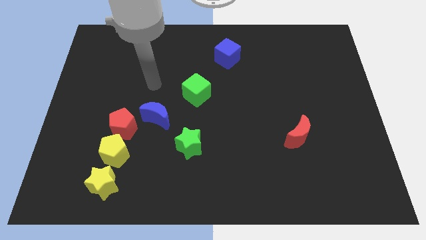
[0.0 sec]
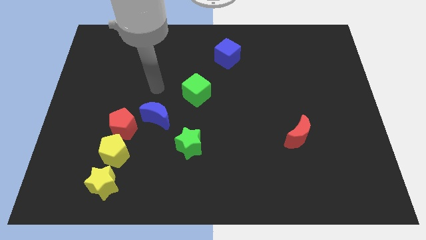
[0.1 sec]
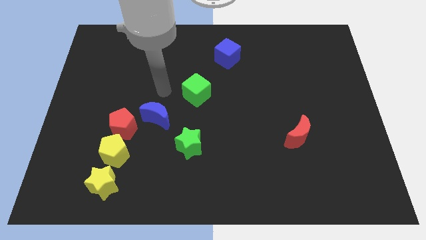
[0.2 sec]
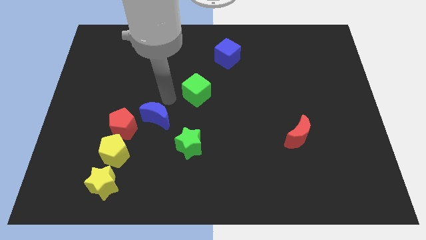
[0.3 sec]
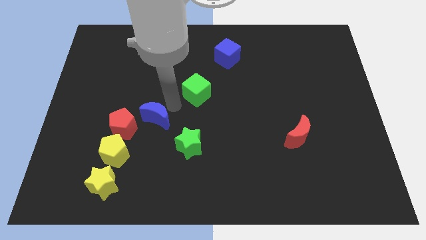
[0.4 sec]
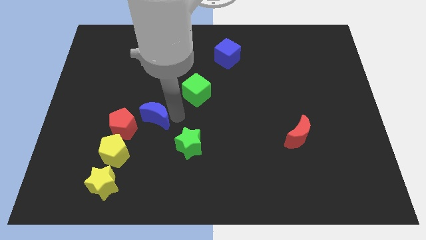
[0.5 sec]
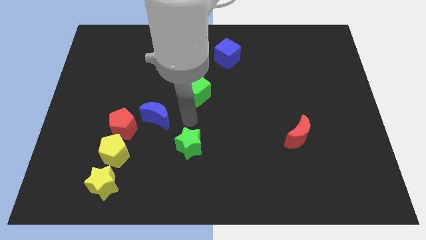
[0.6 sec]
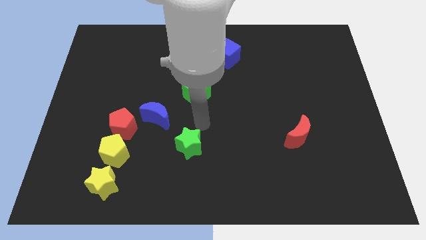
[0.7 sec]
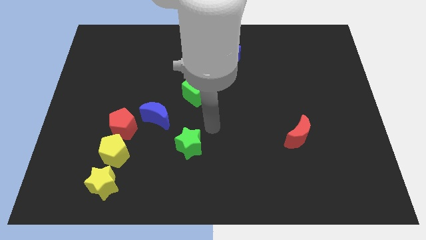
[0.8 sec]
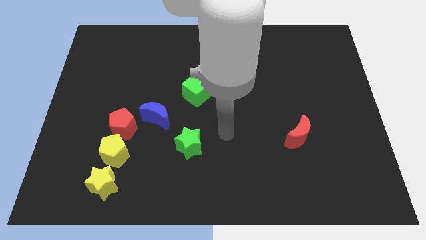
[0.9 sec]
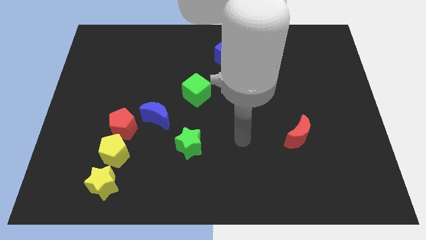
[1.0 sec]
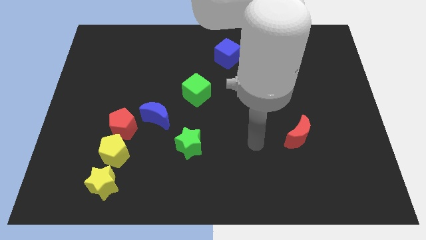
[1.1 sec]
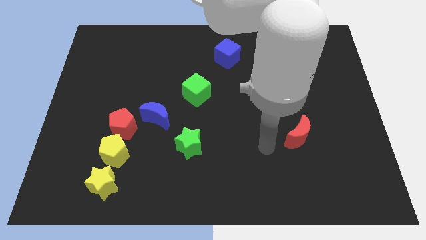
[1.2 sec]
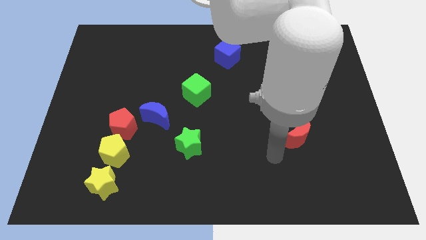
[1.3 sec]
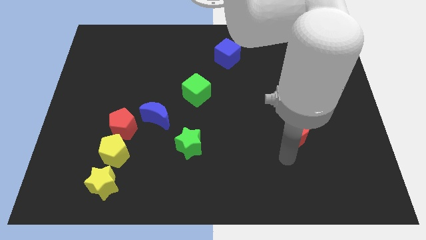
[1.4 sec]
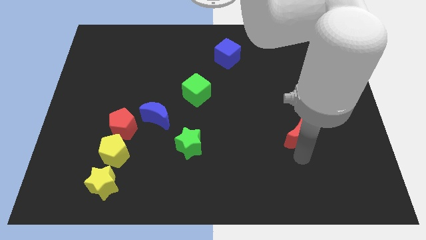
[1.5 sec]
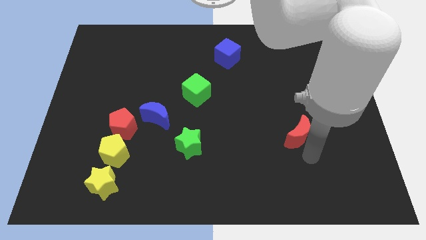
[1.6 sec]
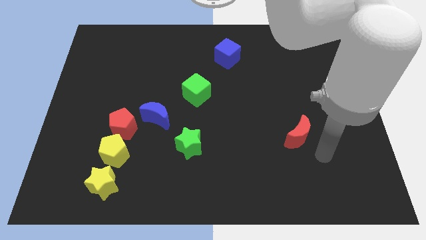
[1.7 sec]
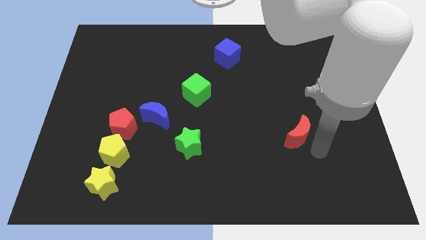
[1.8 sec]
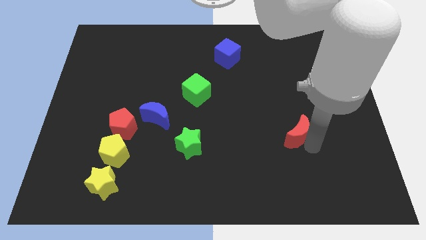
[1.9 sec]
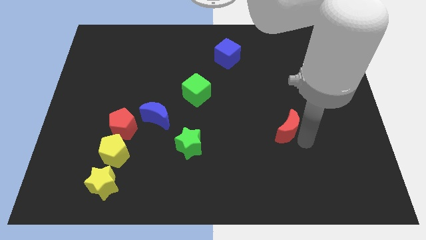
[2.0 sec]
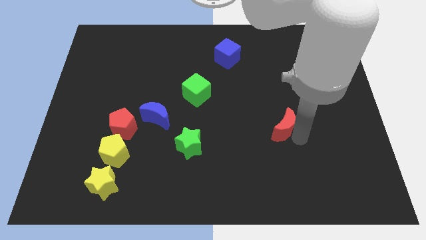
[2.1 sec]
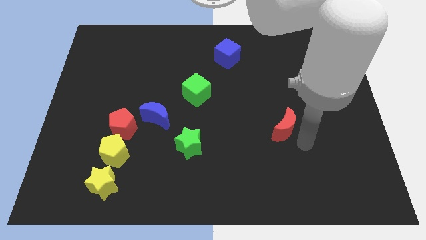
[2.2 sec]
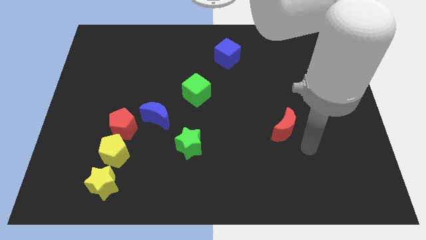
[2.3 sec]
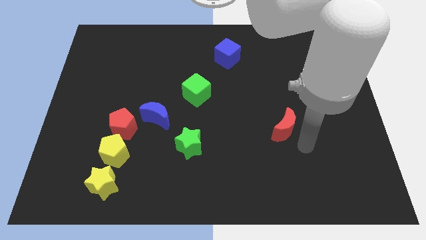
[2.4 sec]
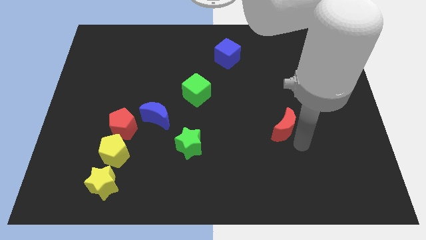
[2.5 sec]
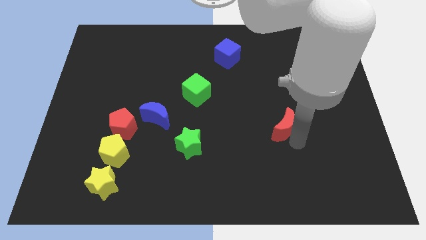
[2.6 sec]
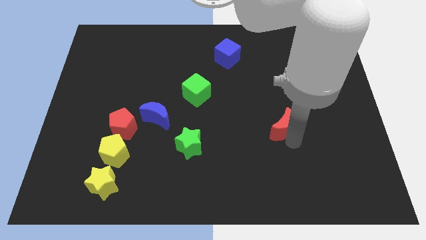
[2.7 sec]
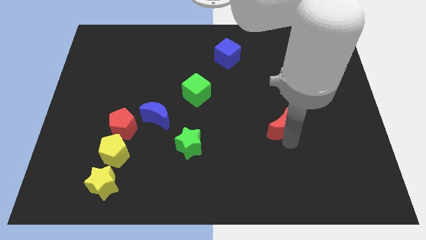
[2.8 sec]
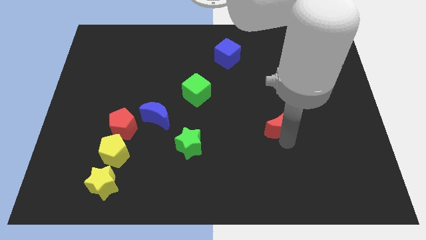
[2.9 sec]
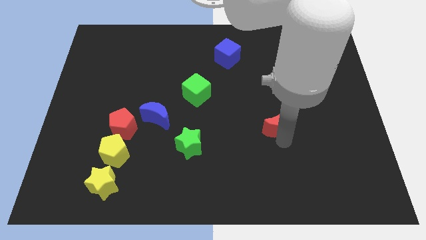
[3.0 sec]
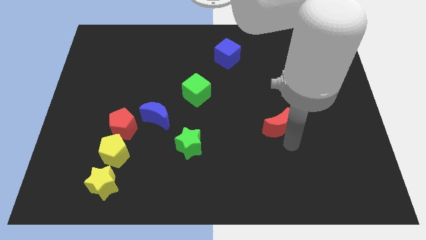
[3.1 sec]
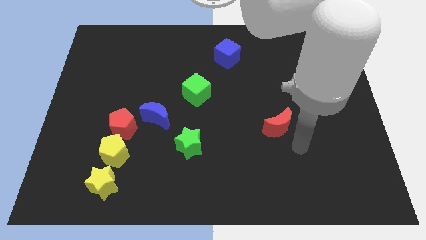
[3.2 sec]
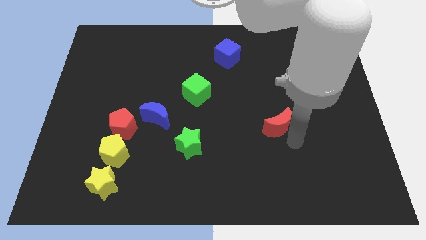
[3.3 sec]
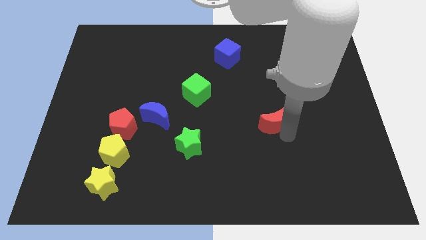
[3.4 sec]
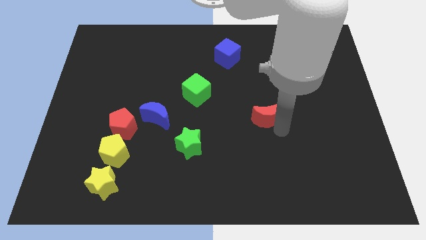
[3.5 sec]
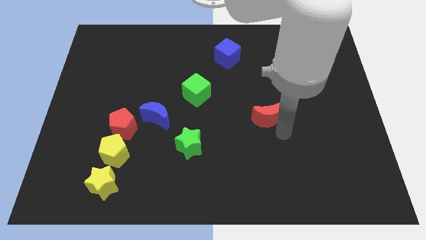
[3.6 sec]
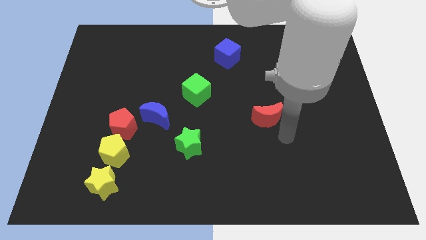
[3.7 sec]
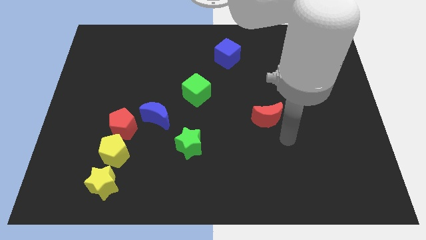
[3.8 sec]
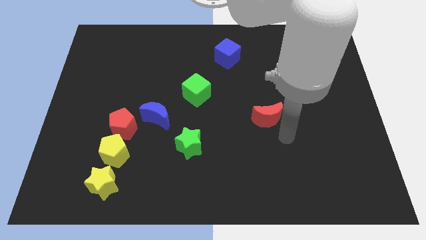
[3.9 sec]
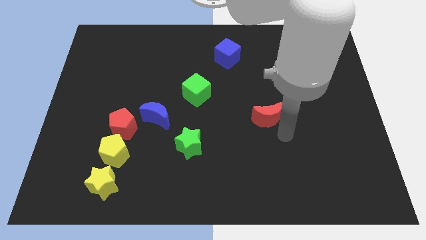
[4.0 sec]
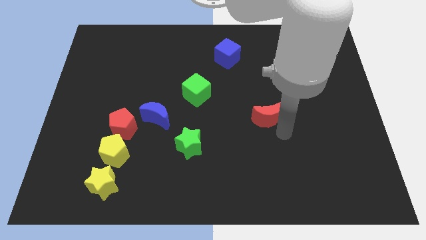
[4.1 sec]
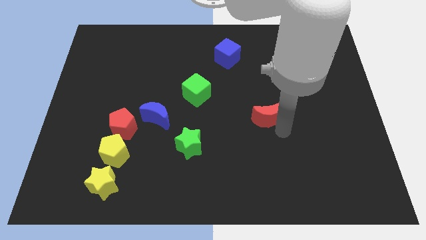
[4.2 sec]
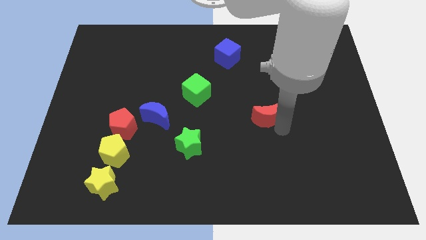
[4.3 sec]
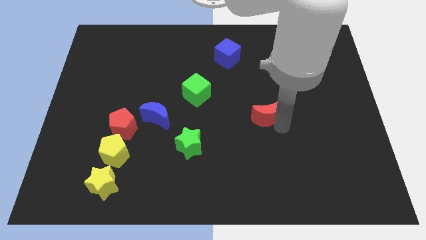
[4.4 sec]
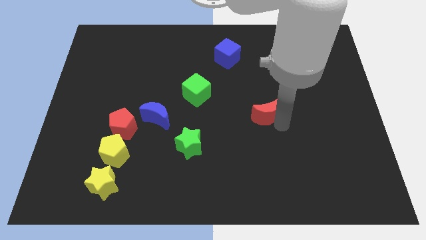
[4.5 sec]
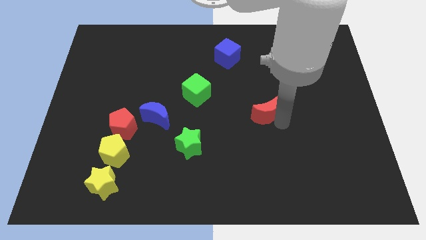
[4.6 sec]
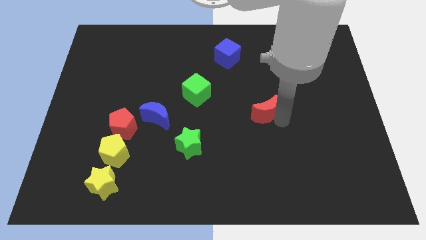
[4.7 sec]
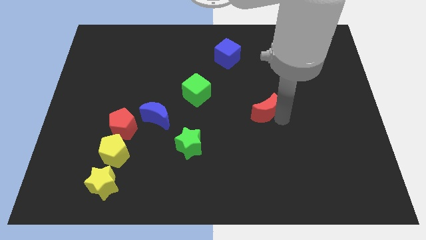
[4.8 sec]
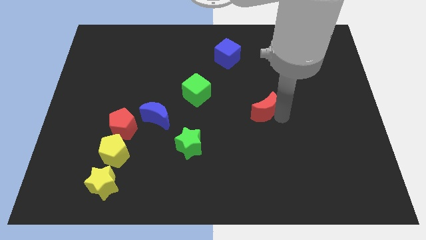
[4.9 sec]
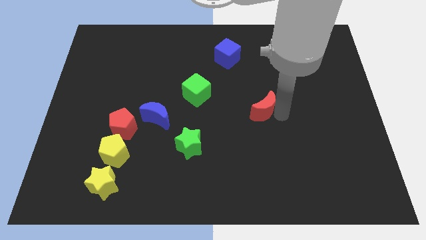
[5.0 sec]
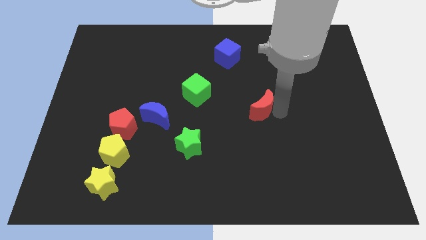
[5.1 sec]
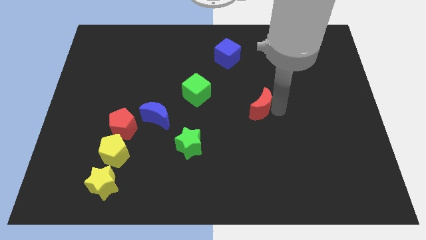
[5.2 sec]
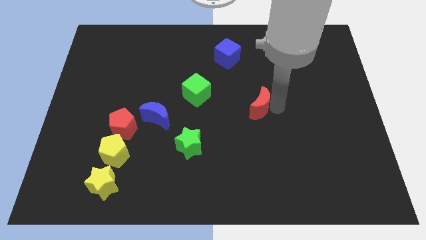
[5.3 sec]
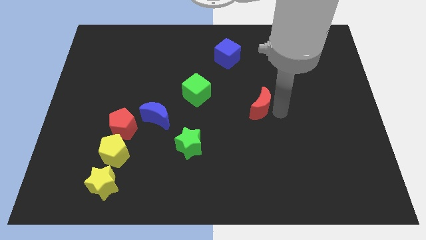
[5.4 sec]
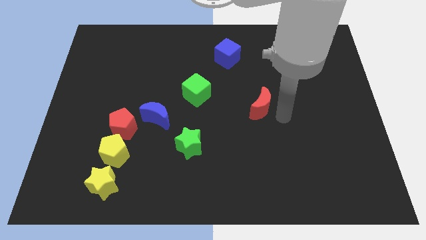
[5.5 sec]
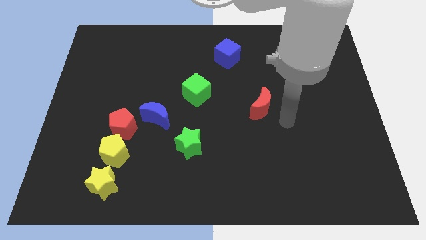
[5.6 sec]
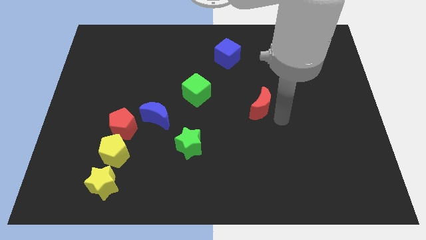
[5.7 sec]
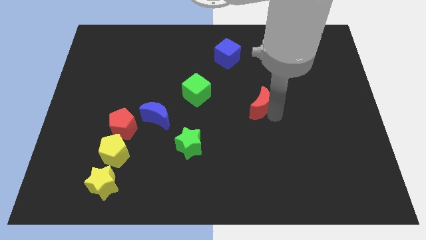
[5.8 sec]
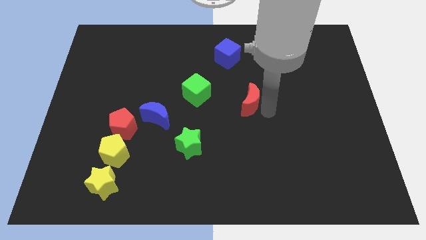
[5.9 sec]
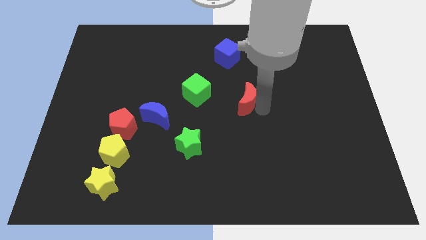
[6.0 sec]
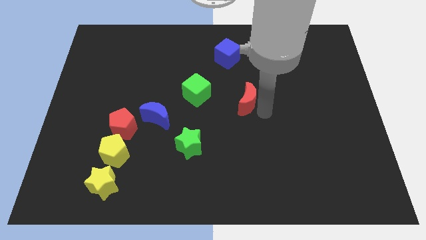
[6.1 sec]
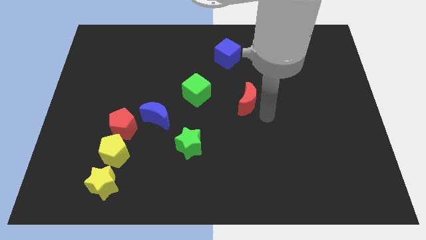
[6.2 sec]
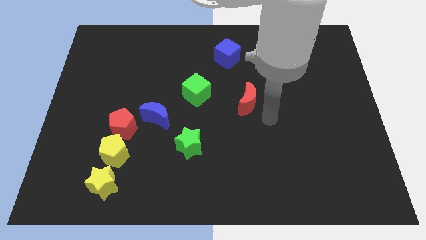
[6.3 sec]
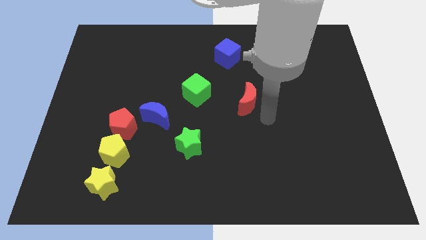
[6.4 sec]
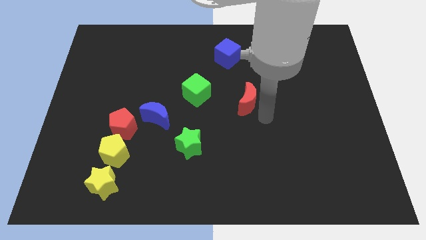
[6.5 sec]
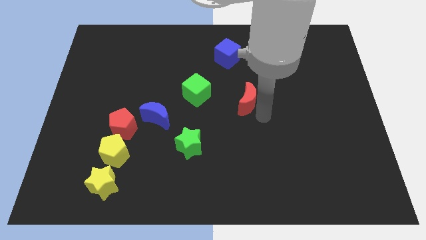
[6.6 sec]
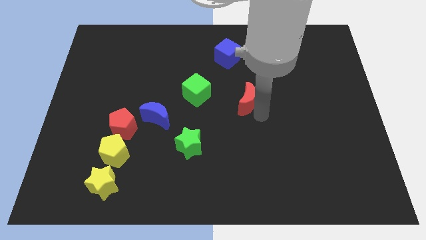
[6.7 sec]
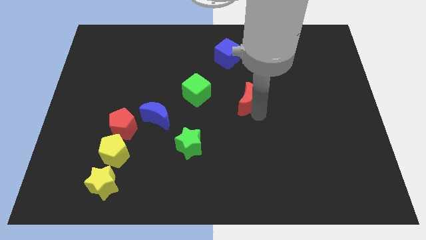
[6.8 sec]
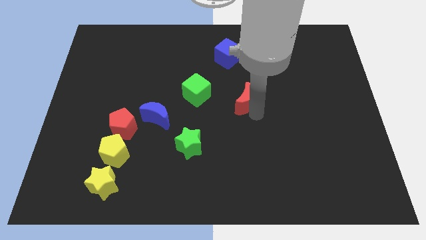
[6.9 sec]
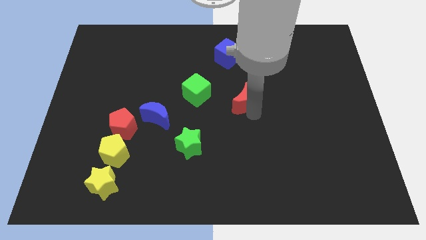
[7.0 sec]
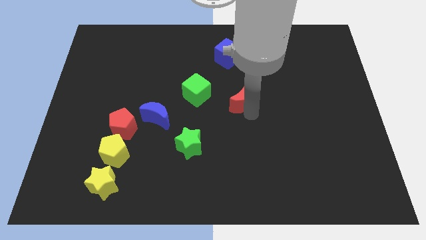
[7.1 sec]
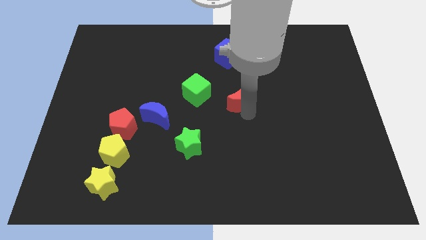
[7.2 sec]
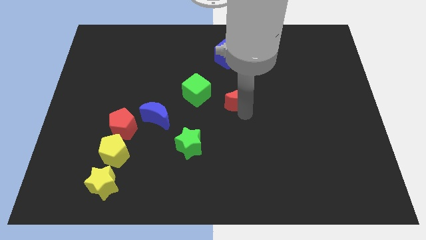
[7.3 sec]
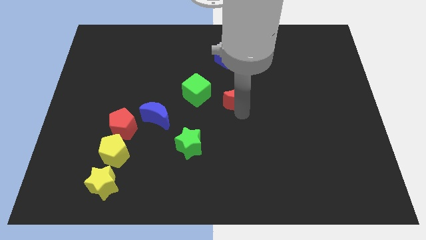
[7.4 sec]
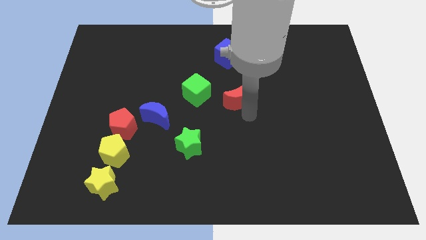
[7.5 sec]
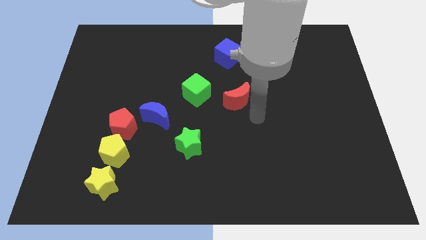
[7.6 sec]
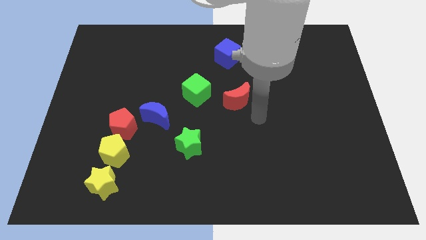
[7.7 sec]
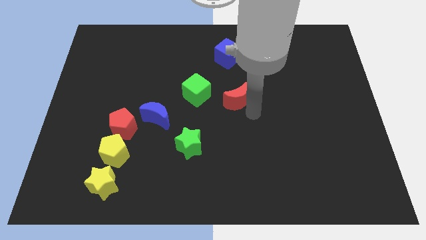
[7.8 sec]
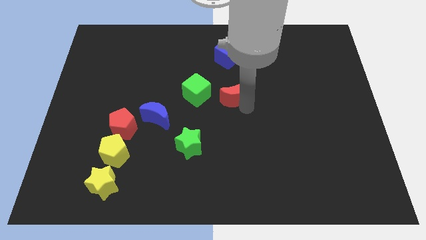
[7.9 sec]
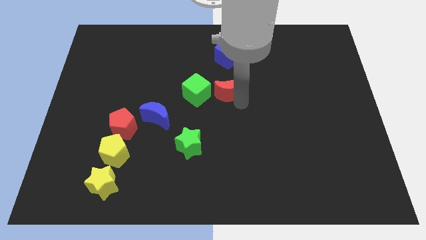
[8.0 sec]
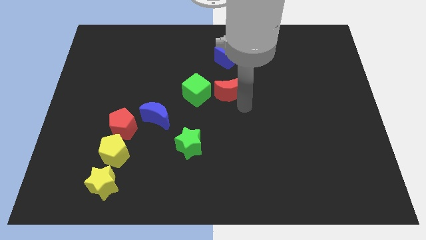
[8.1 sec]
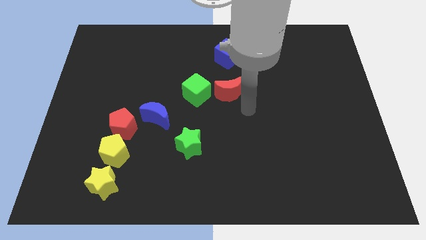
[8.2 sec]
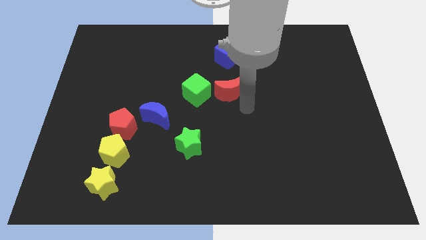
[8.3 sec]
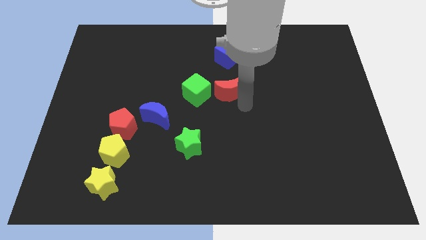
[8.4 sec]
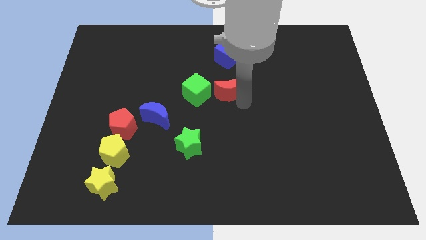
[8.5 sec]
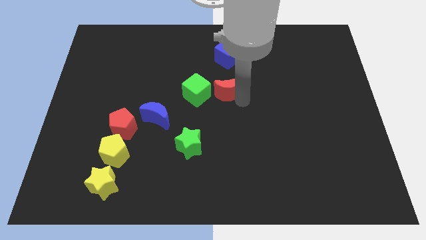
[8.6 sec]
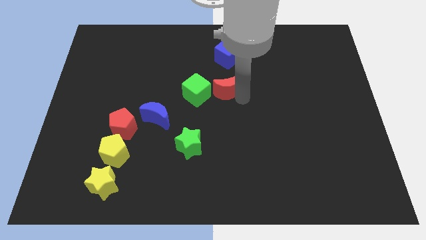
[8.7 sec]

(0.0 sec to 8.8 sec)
move the red moon up and to the left
